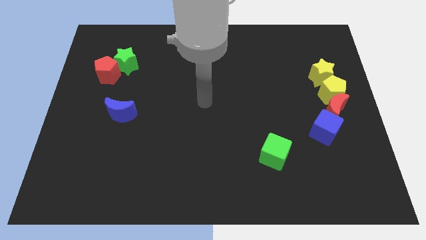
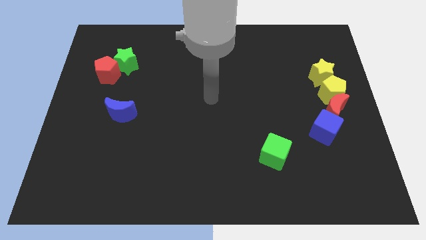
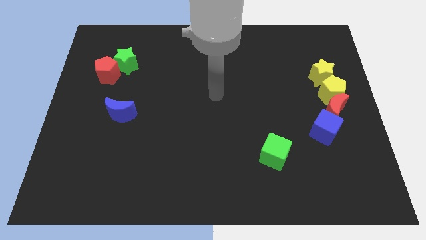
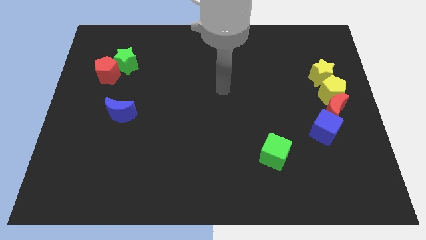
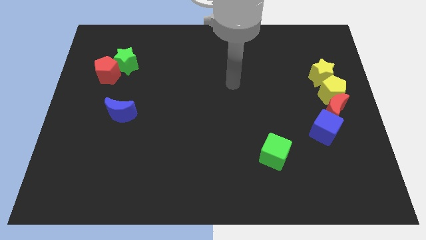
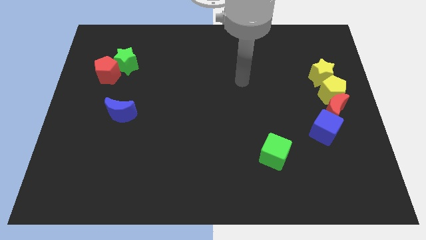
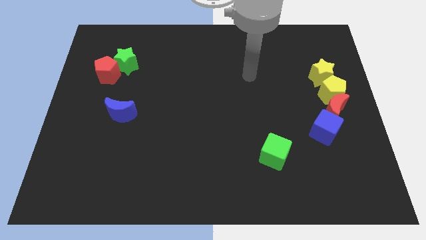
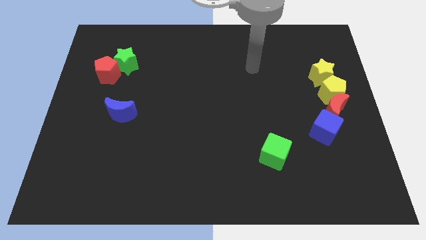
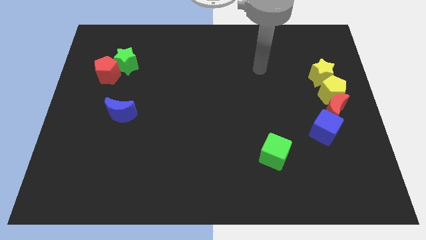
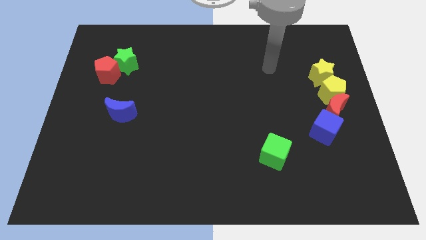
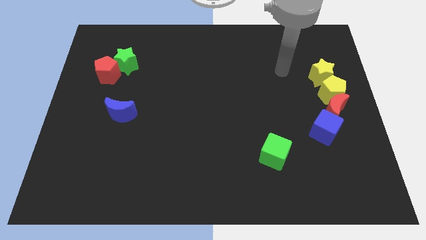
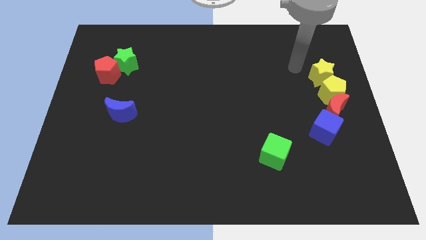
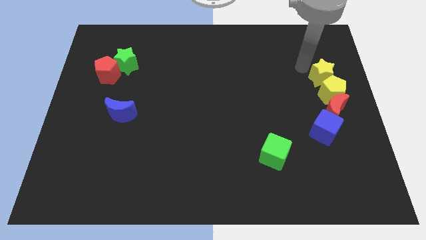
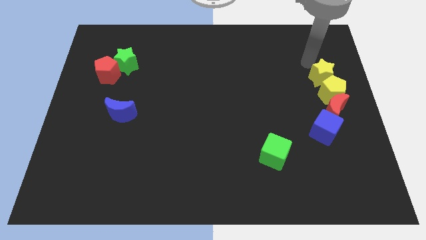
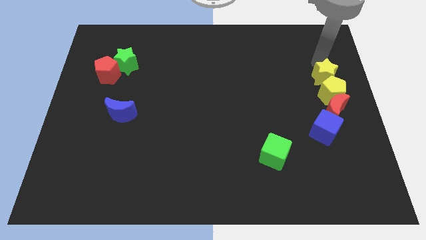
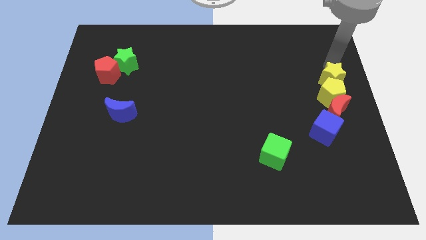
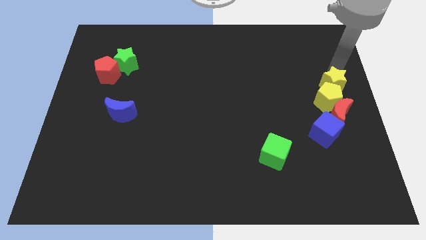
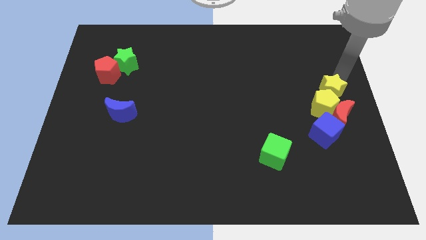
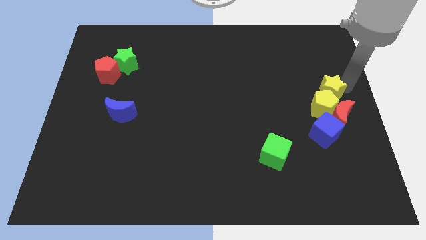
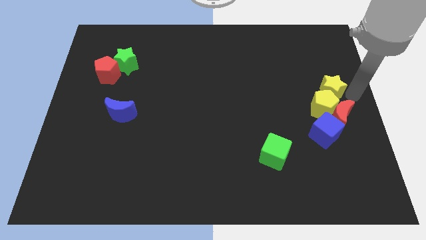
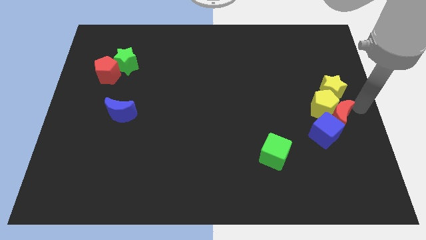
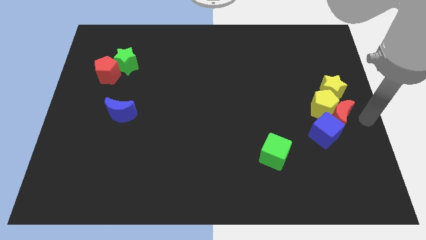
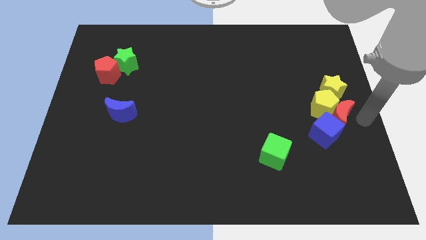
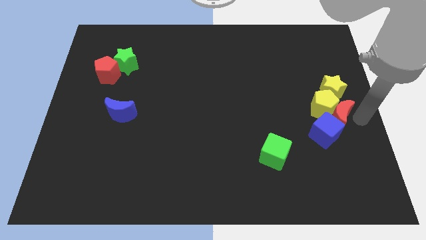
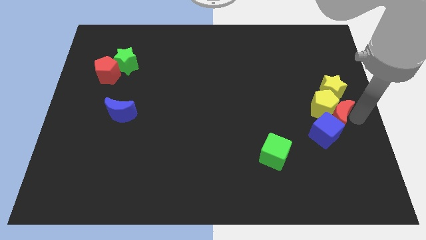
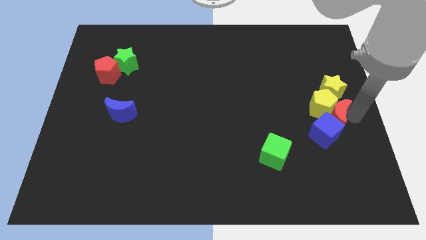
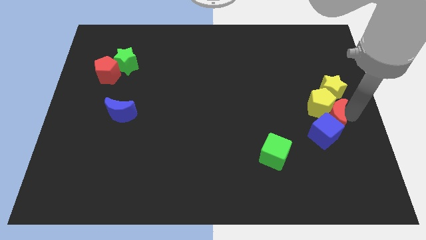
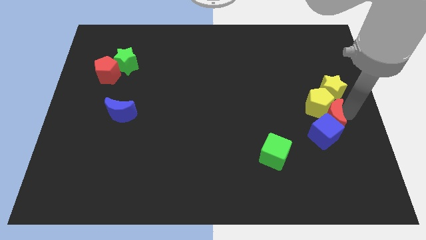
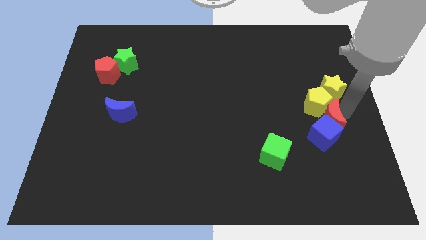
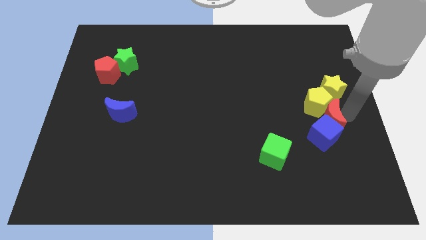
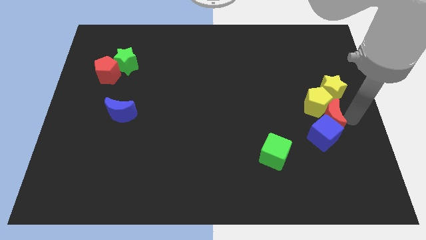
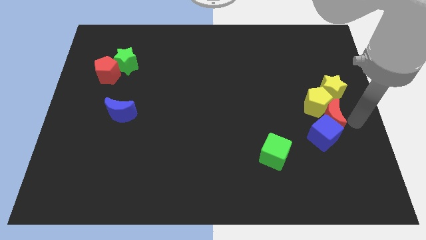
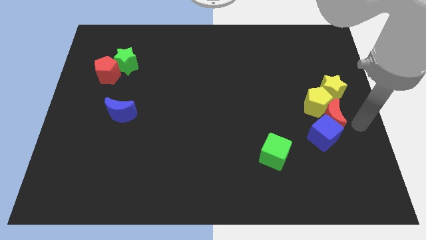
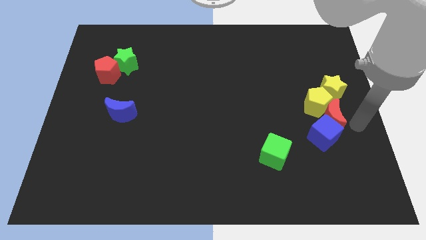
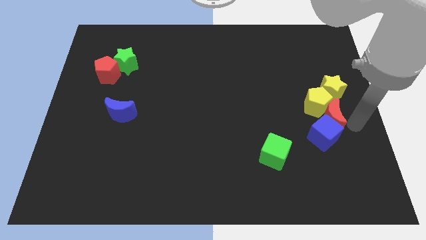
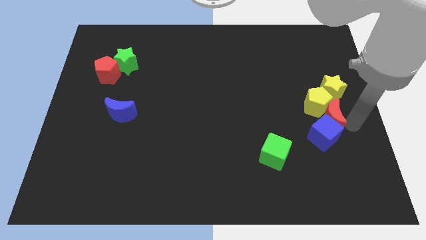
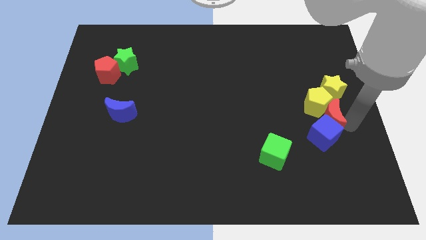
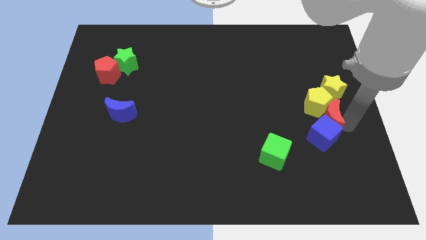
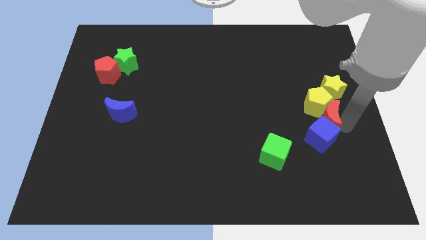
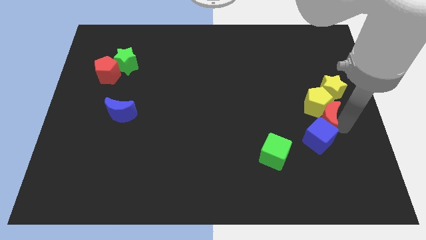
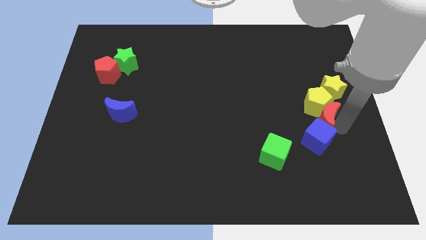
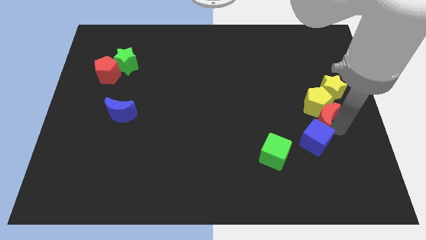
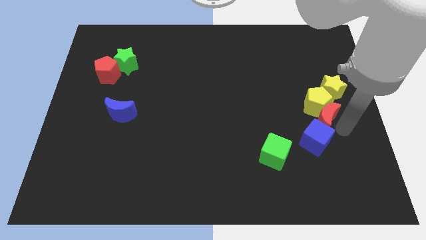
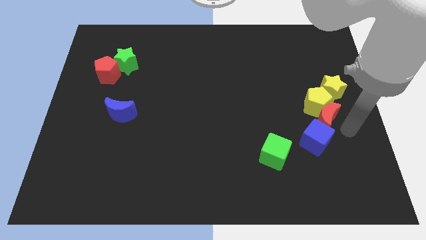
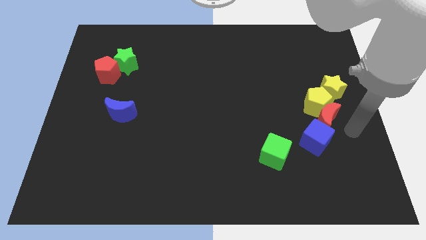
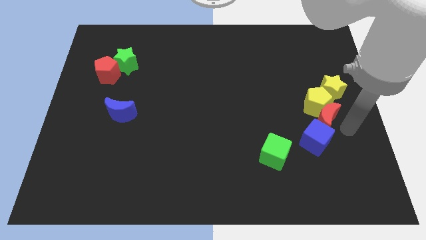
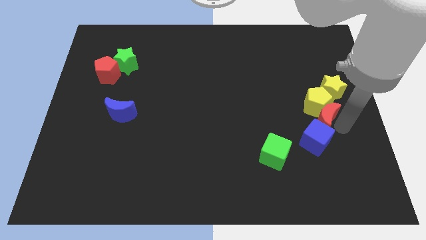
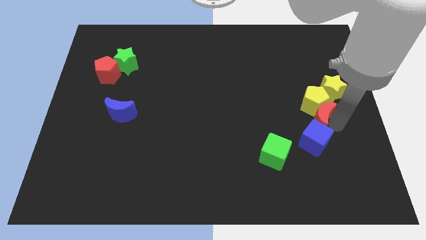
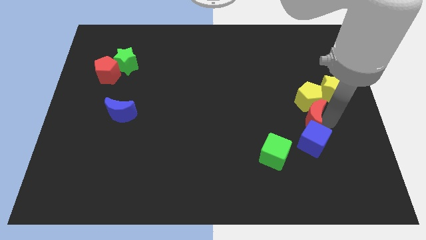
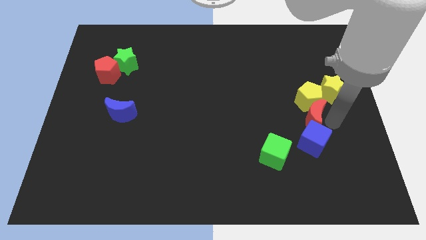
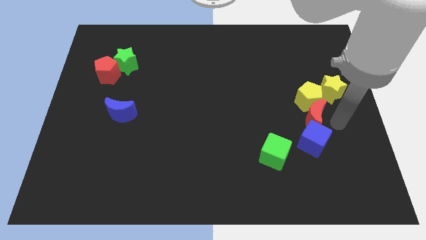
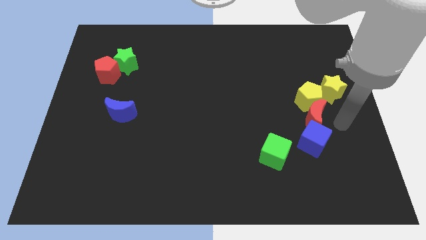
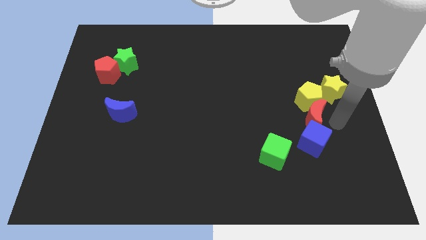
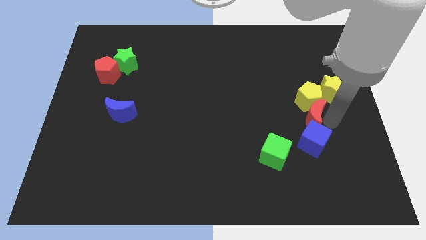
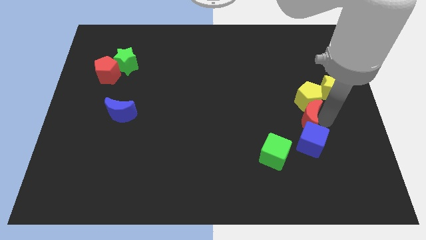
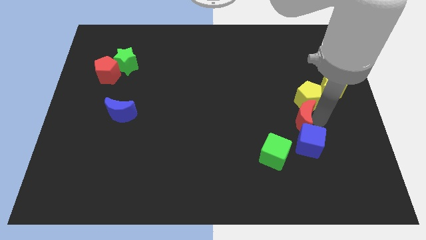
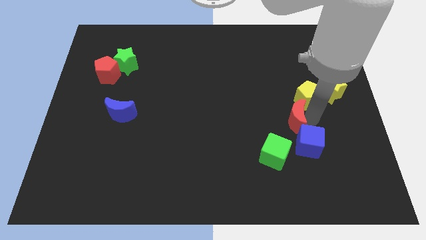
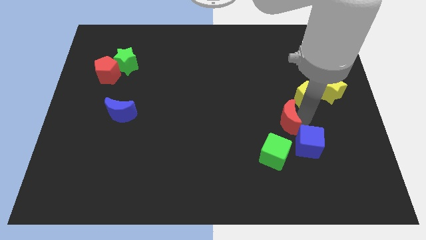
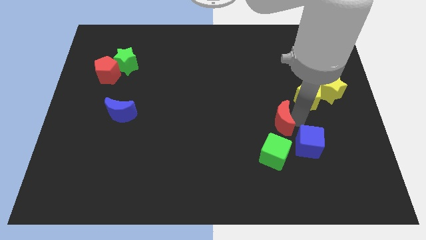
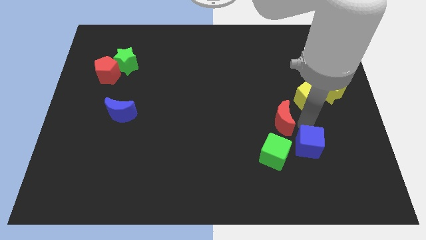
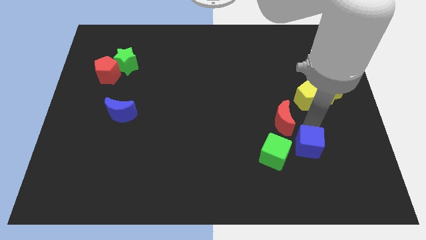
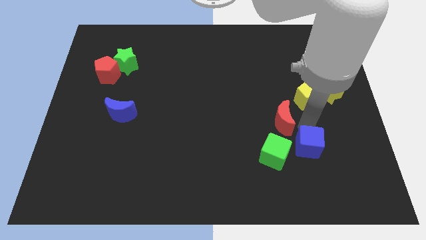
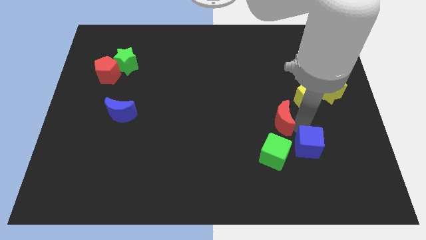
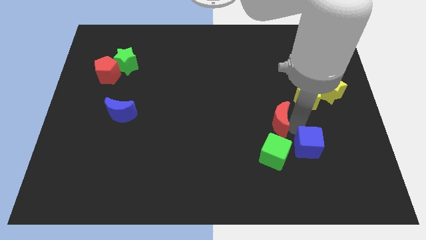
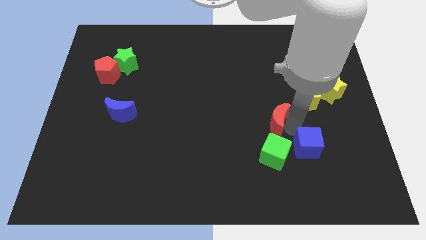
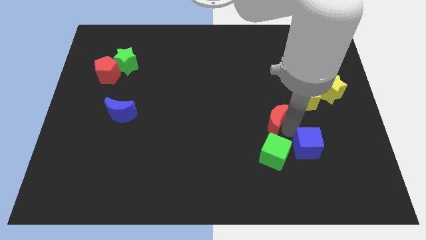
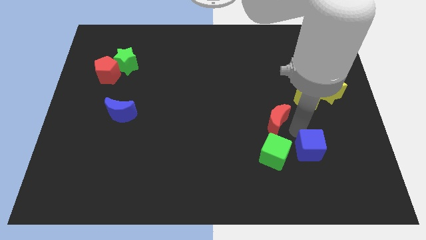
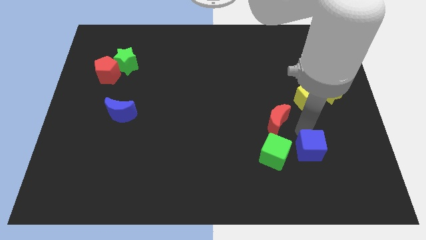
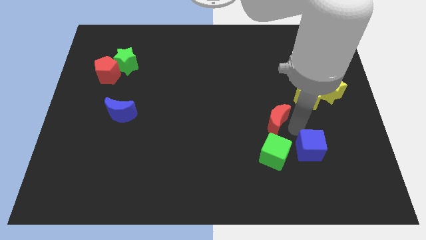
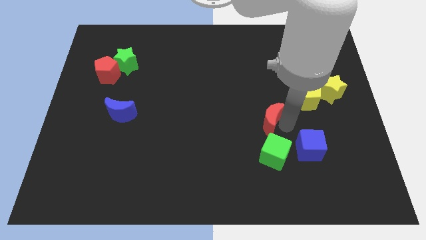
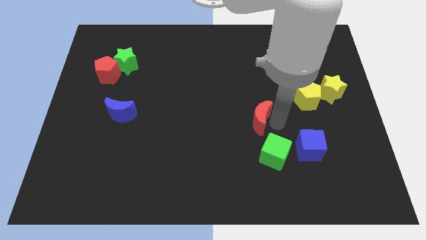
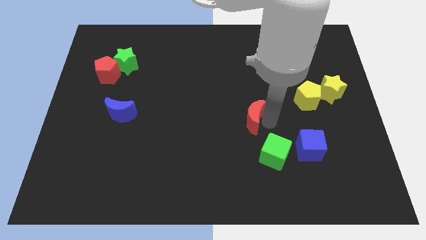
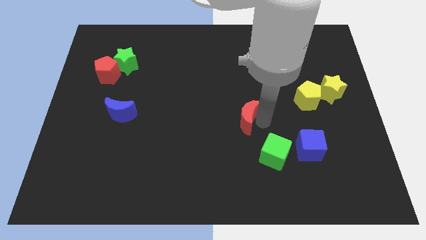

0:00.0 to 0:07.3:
slide the red moon to the left

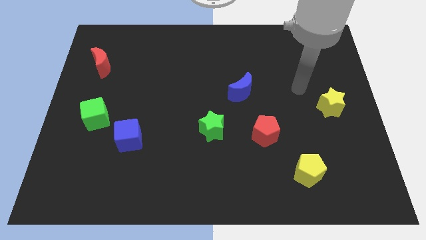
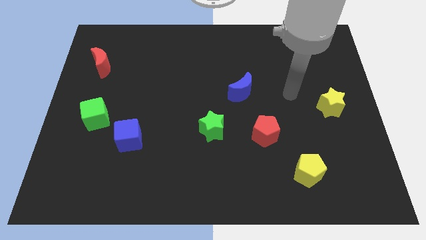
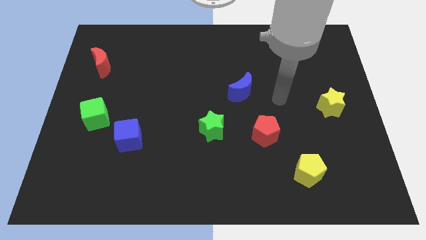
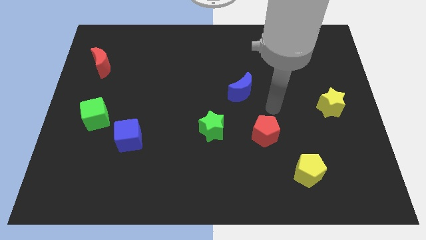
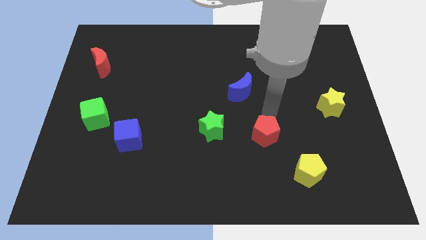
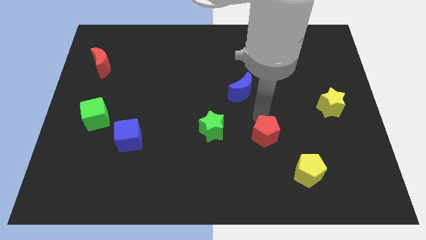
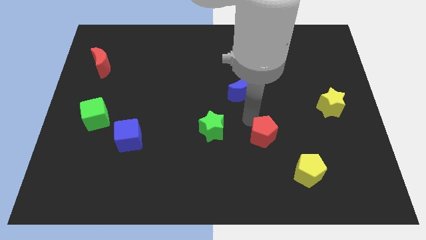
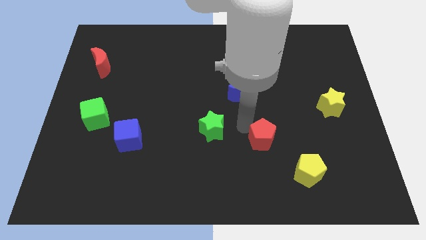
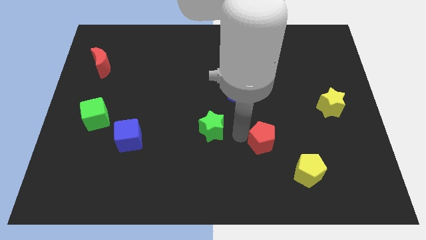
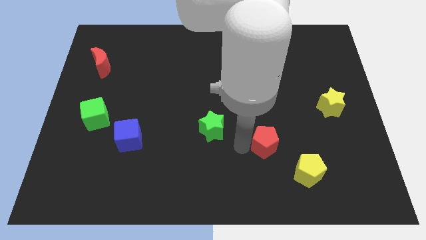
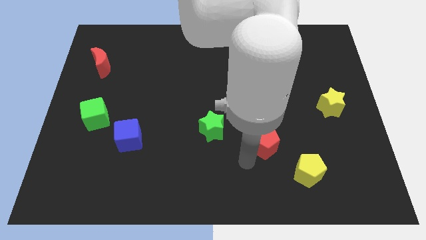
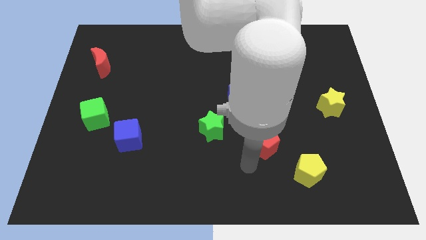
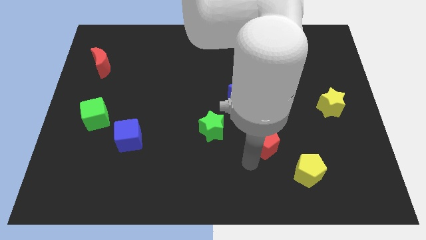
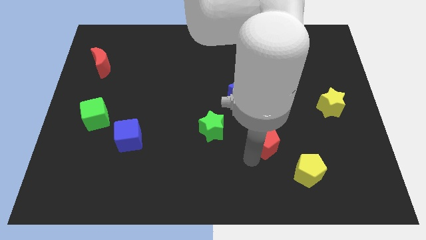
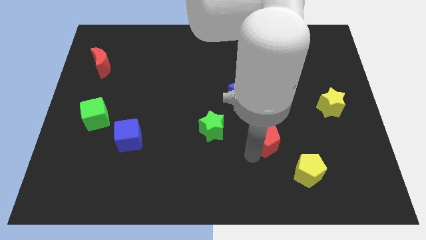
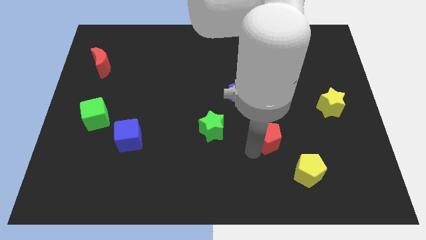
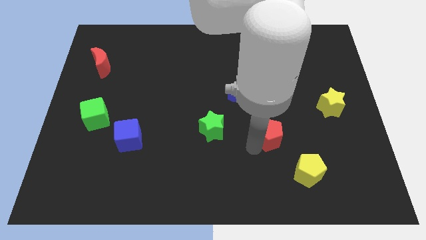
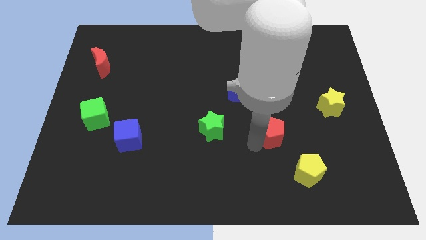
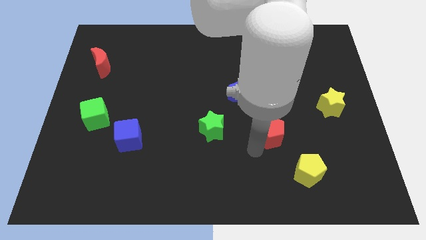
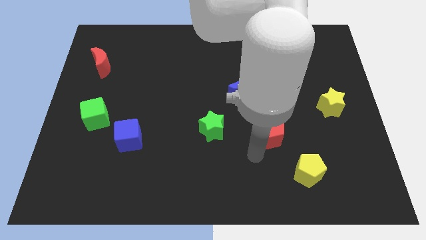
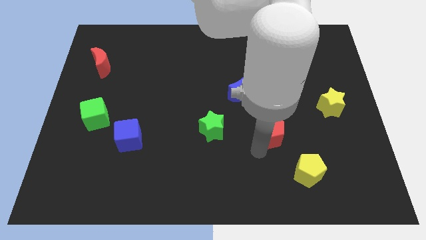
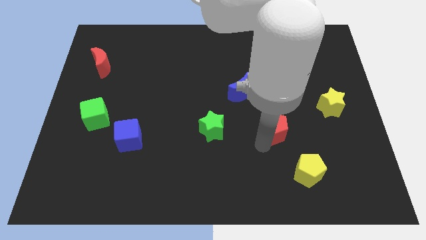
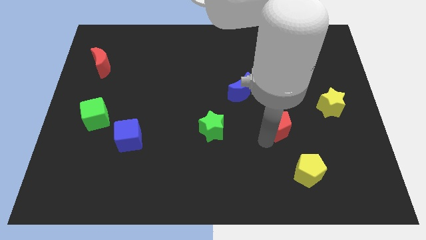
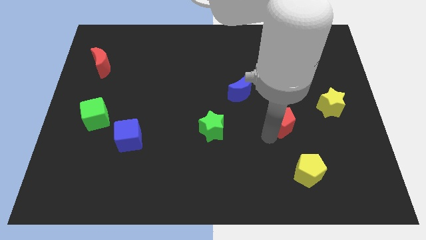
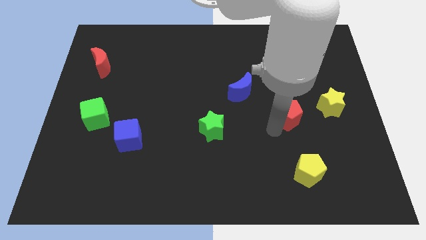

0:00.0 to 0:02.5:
slightly push the red pentagon upwards and right
